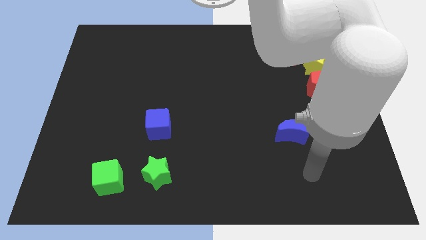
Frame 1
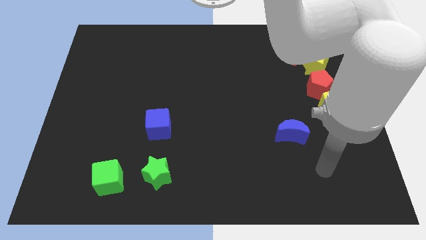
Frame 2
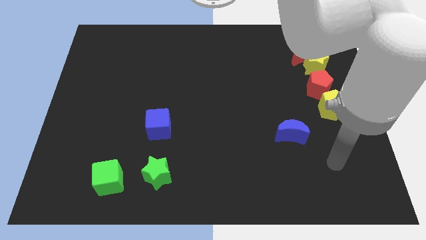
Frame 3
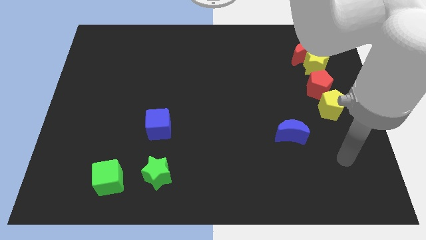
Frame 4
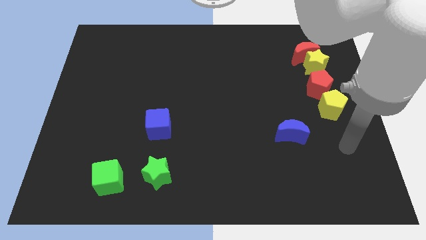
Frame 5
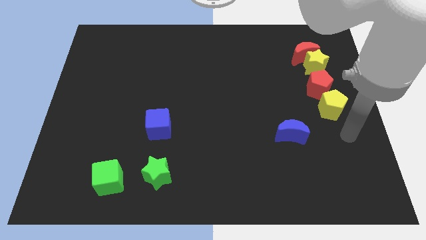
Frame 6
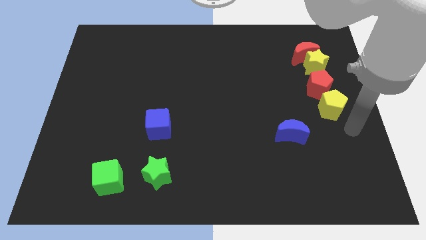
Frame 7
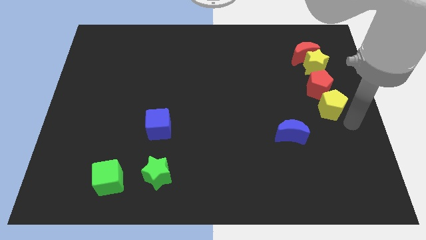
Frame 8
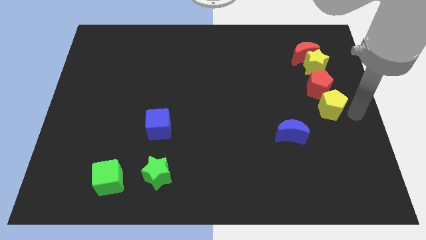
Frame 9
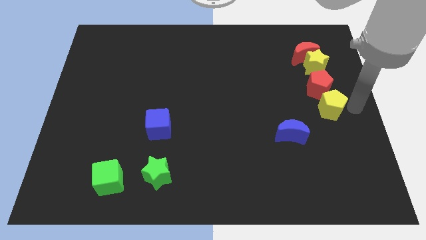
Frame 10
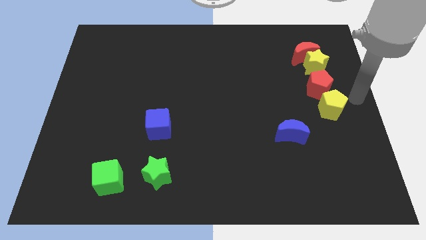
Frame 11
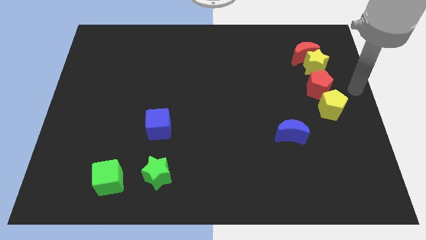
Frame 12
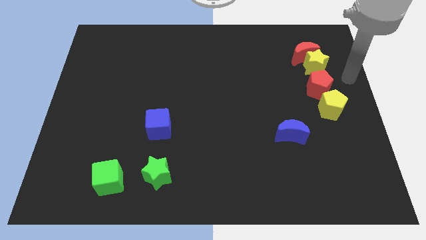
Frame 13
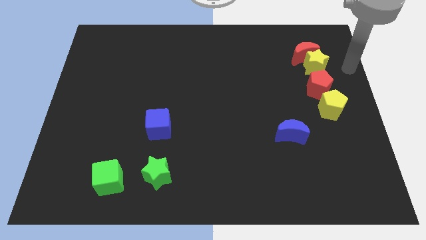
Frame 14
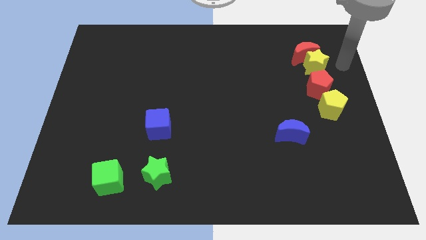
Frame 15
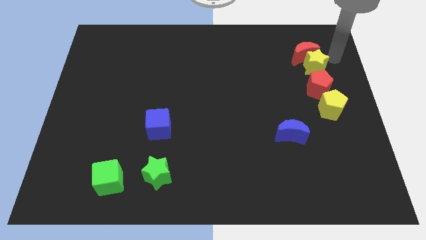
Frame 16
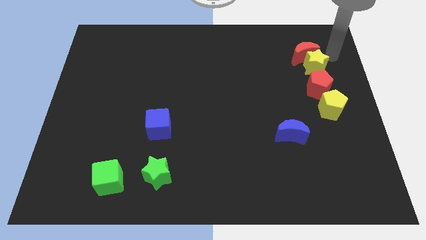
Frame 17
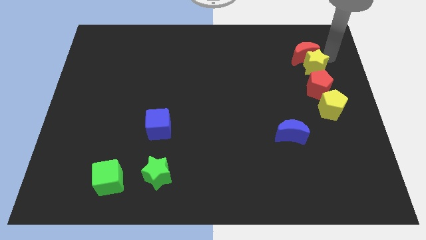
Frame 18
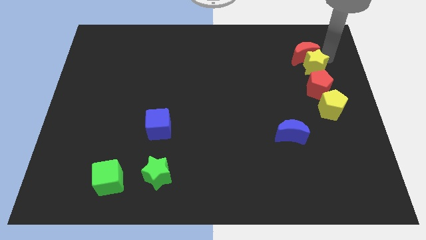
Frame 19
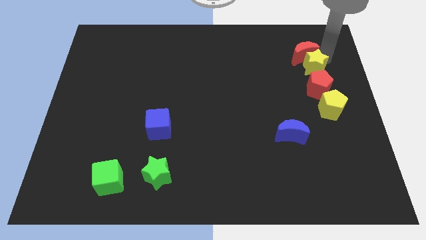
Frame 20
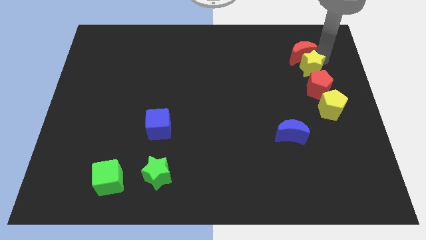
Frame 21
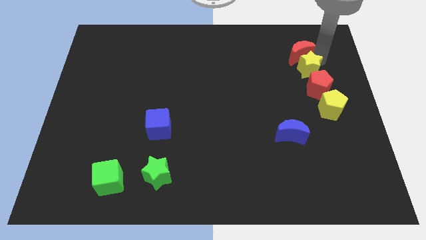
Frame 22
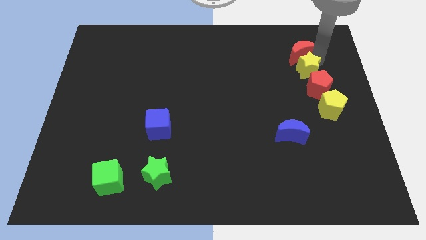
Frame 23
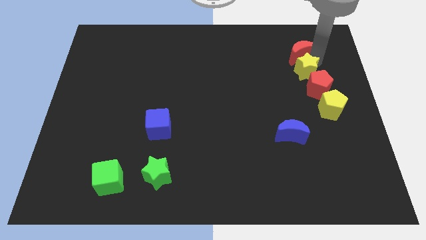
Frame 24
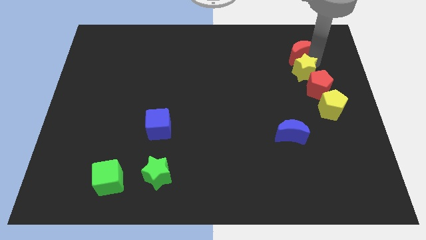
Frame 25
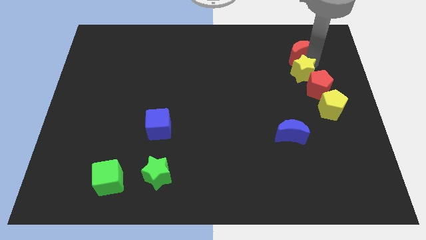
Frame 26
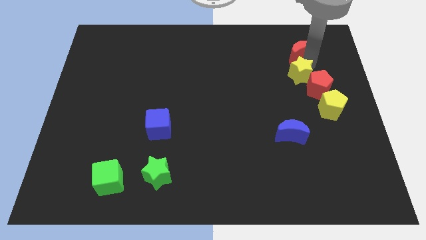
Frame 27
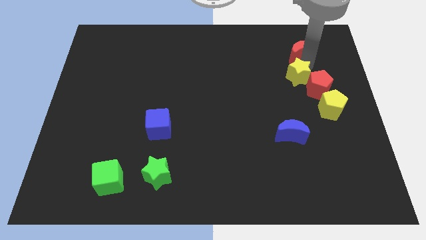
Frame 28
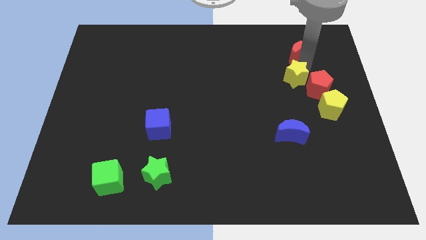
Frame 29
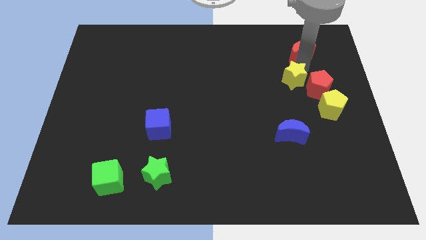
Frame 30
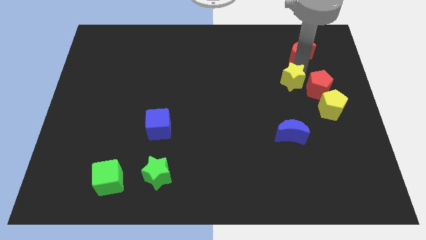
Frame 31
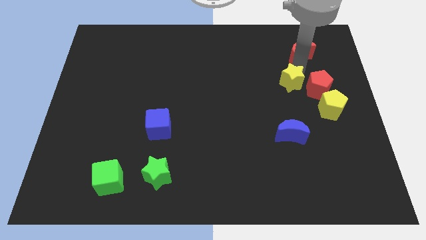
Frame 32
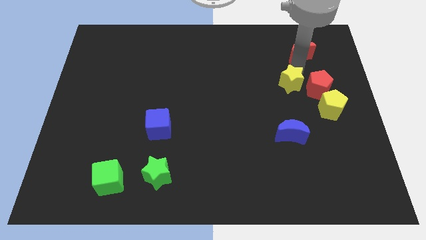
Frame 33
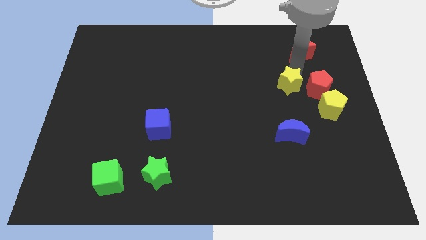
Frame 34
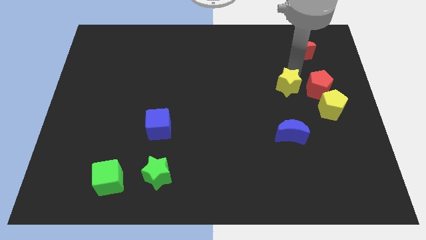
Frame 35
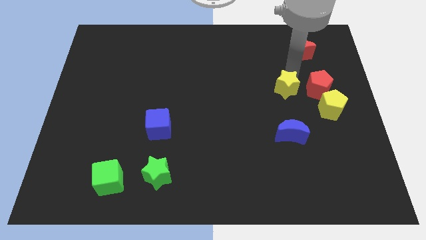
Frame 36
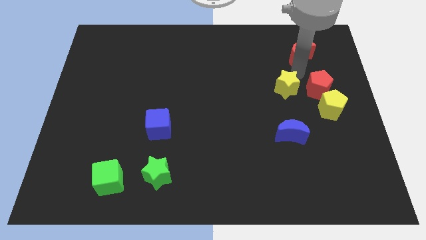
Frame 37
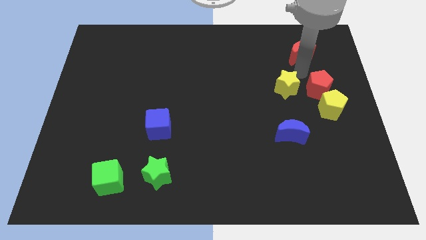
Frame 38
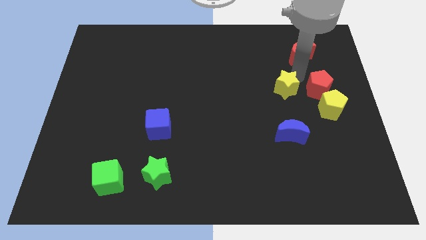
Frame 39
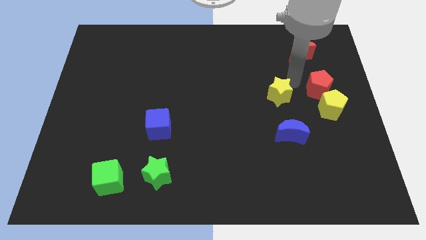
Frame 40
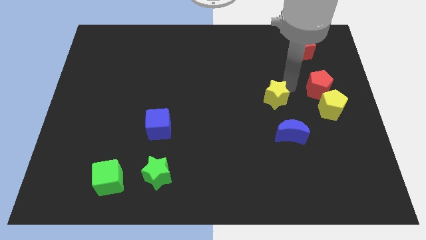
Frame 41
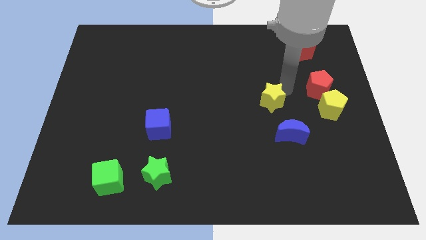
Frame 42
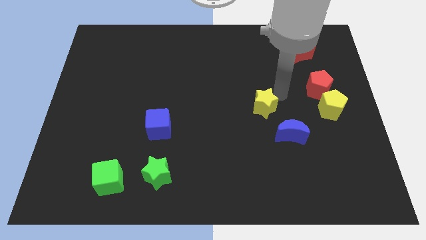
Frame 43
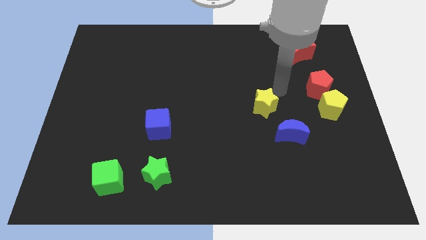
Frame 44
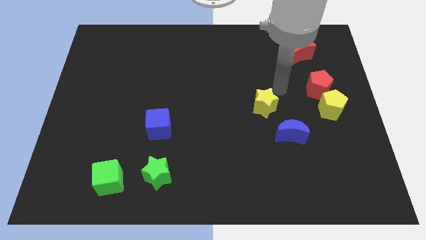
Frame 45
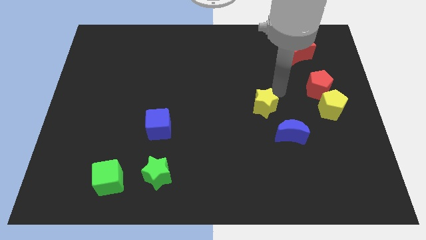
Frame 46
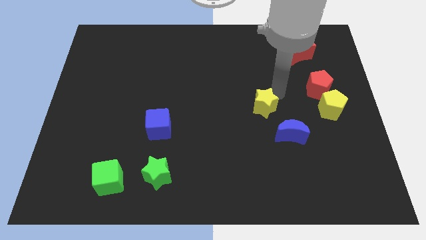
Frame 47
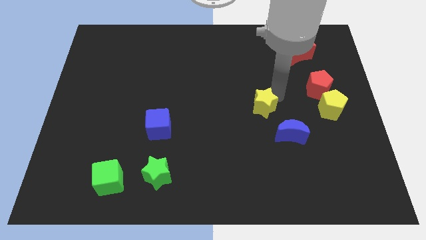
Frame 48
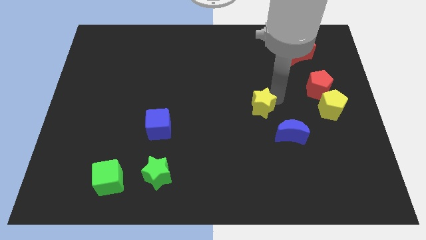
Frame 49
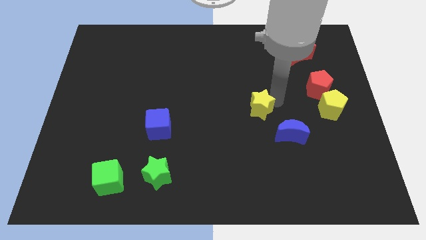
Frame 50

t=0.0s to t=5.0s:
move the yellow star downwards and then to the left

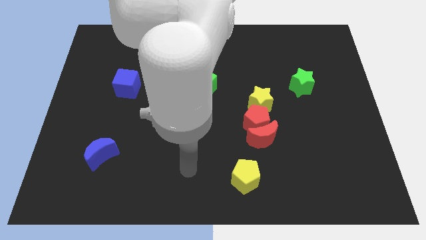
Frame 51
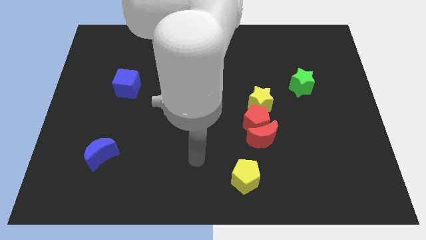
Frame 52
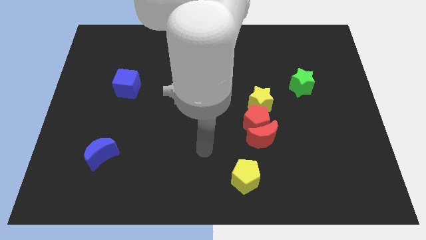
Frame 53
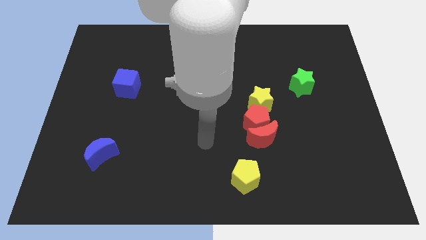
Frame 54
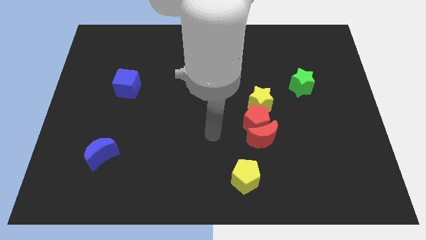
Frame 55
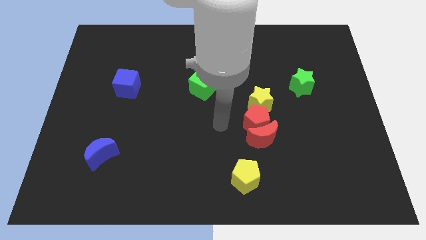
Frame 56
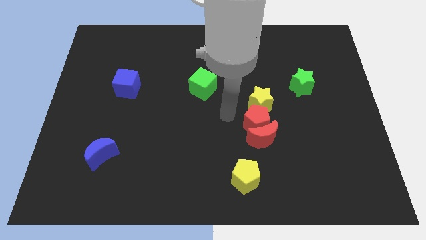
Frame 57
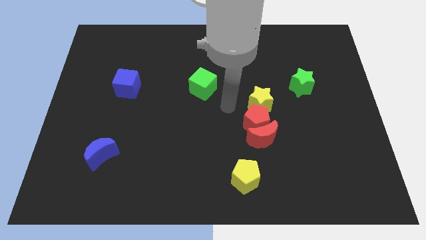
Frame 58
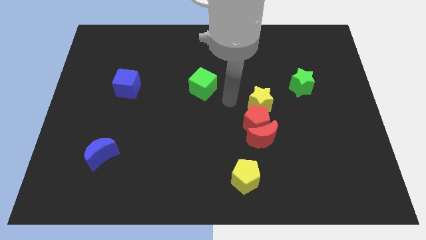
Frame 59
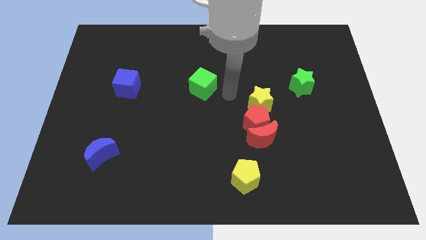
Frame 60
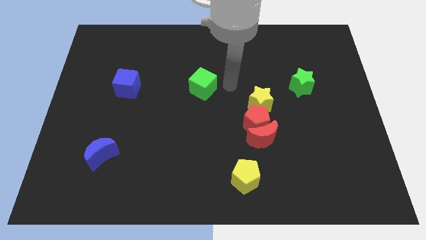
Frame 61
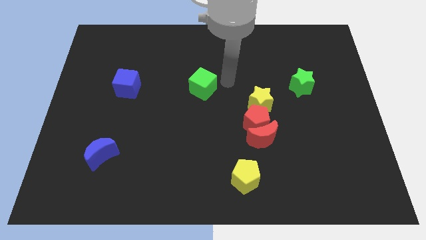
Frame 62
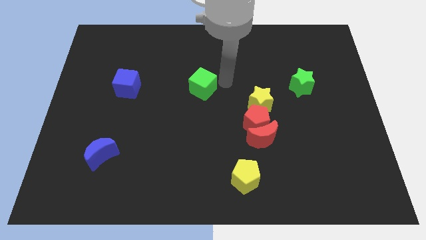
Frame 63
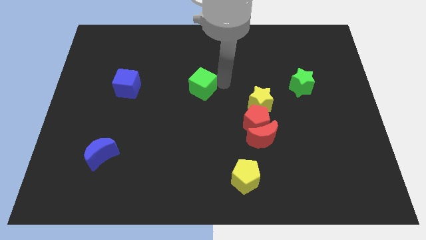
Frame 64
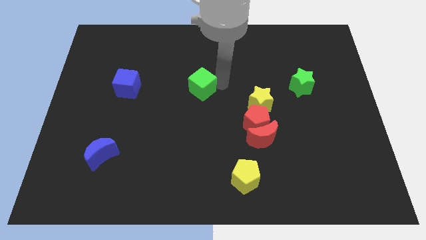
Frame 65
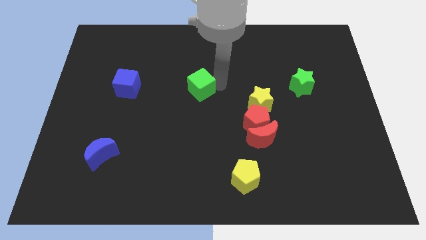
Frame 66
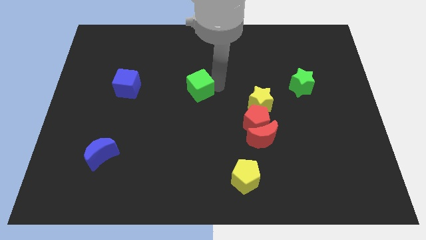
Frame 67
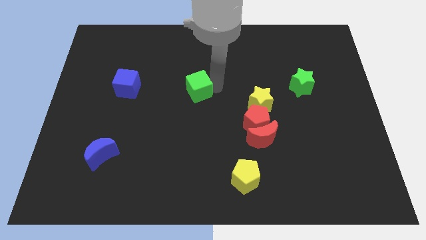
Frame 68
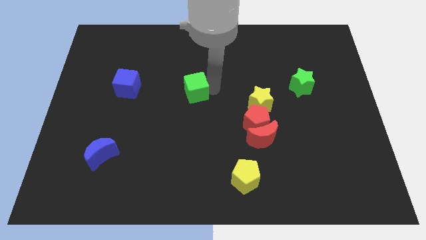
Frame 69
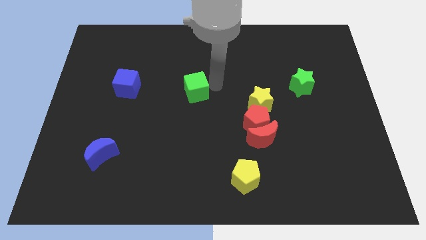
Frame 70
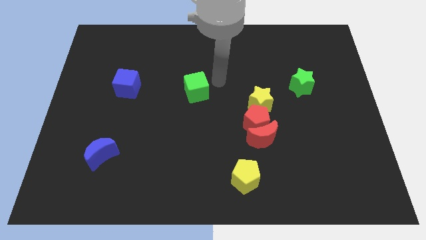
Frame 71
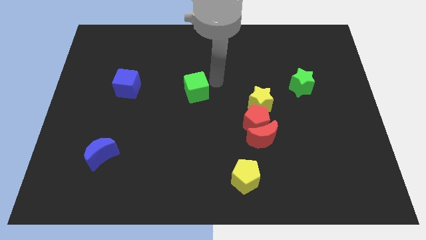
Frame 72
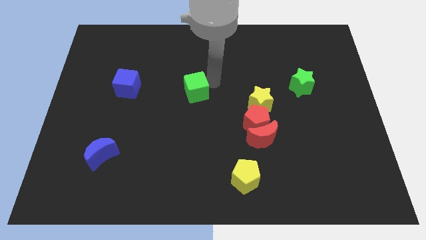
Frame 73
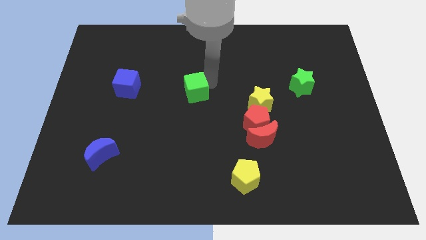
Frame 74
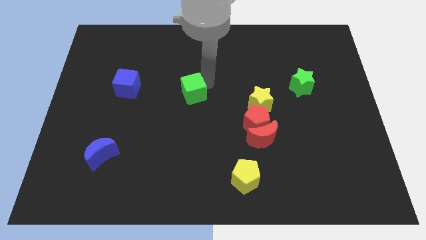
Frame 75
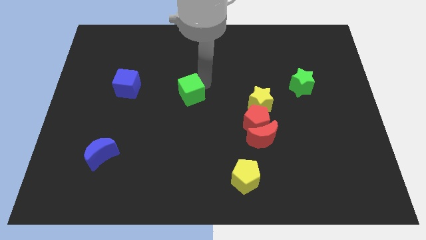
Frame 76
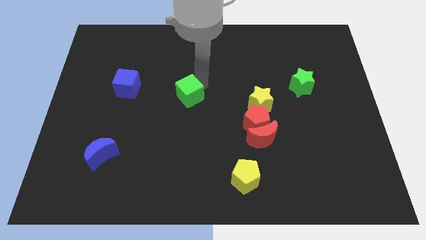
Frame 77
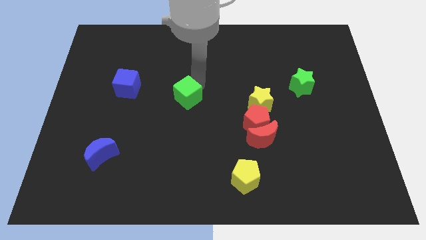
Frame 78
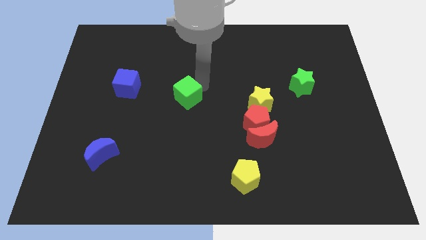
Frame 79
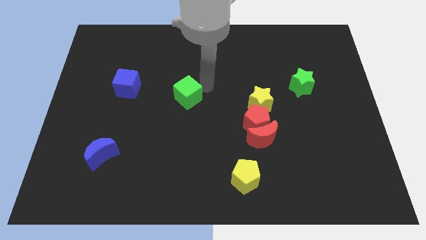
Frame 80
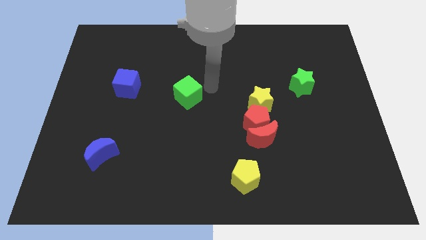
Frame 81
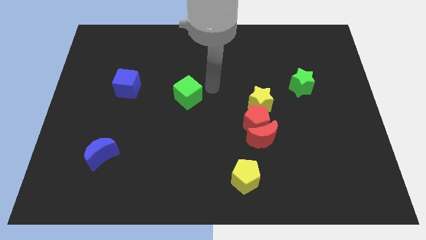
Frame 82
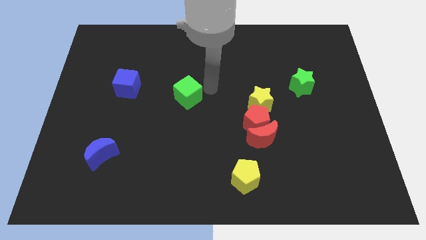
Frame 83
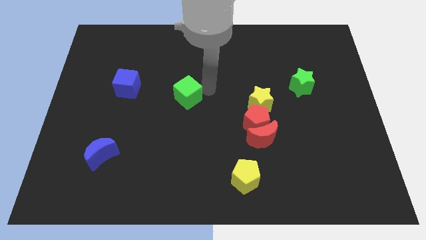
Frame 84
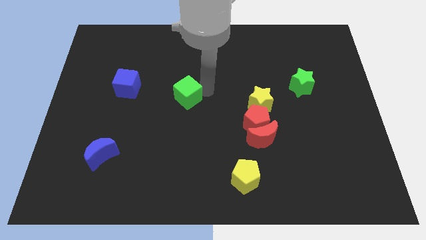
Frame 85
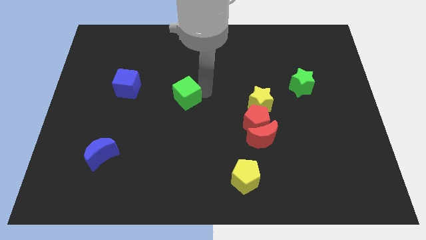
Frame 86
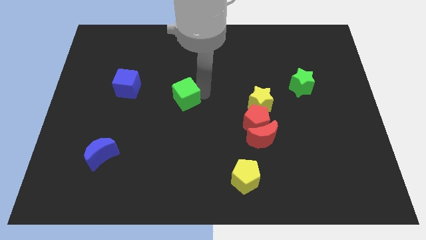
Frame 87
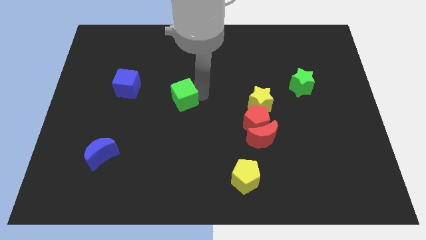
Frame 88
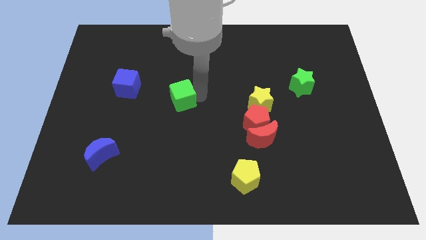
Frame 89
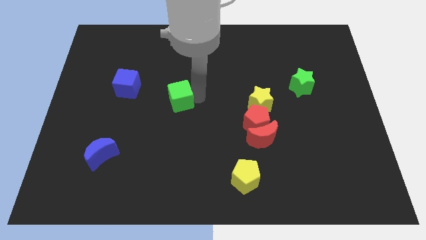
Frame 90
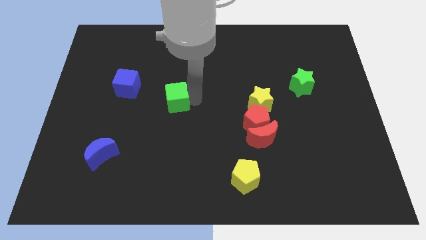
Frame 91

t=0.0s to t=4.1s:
push the green cube downwards and left diagonally a little
